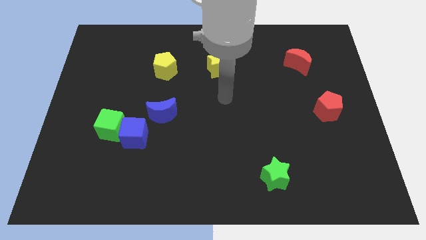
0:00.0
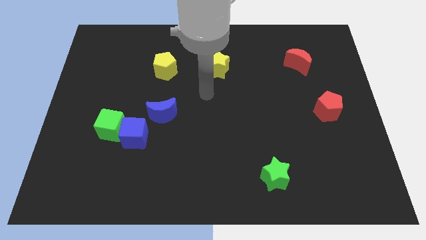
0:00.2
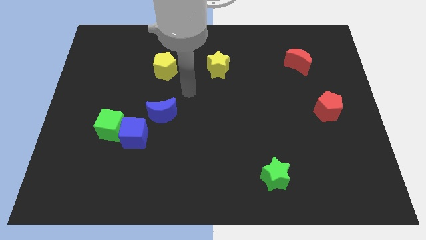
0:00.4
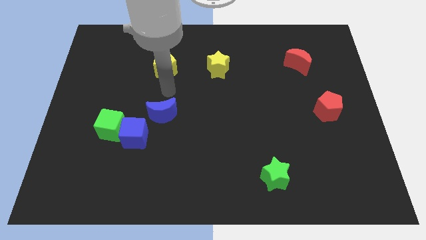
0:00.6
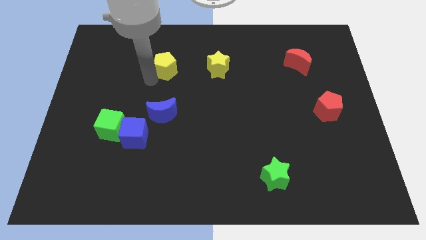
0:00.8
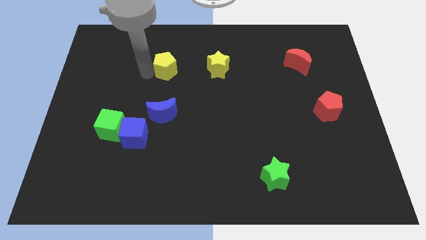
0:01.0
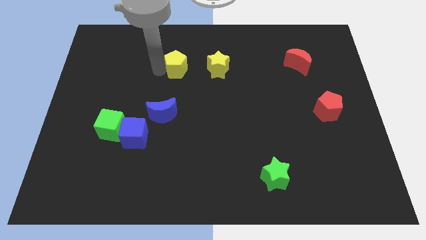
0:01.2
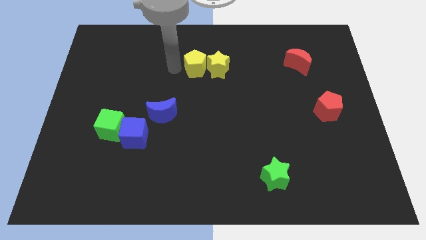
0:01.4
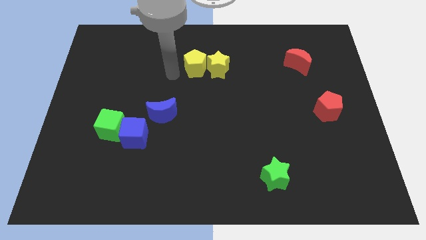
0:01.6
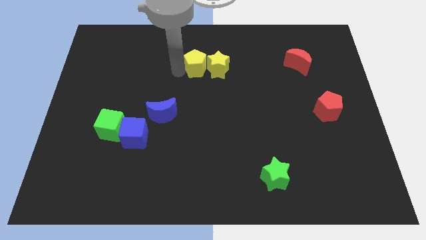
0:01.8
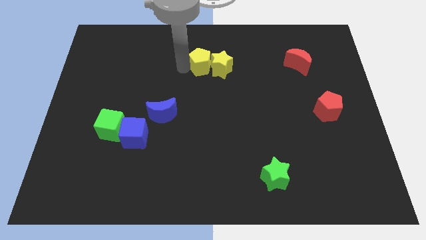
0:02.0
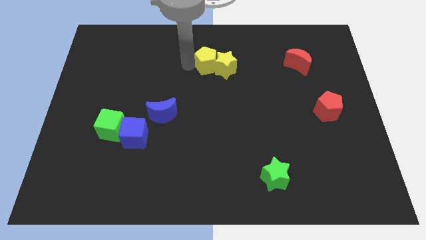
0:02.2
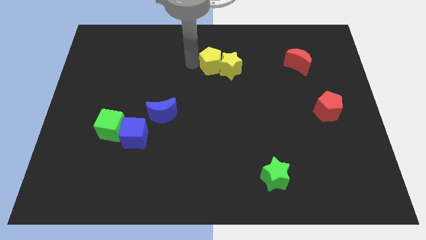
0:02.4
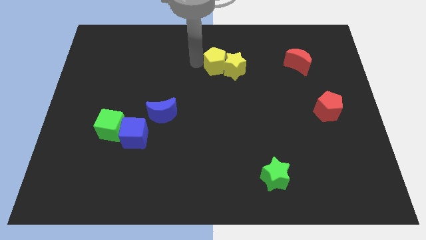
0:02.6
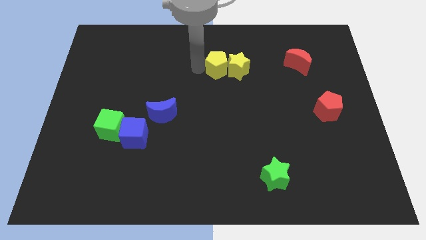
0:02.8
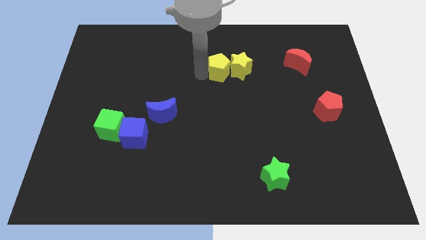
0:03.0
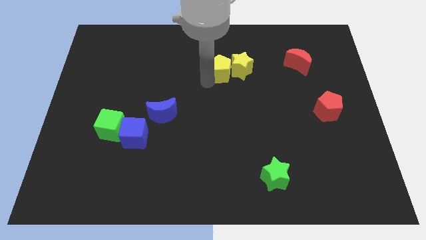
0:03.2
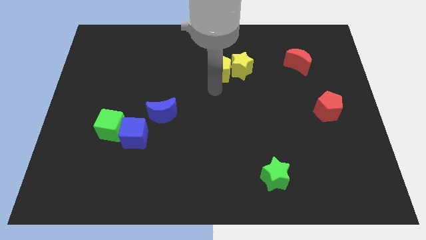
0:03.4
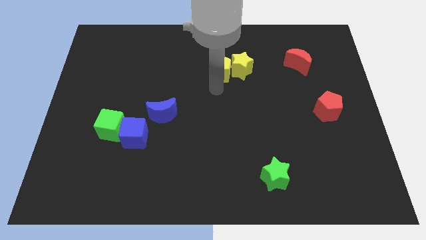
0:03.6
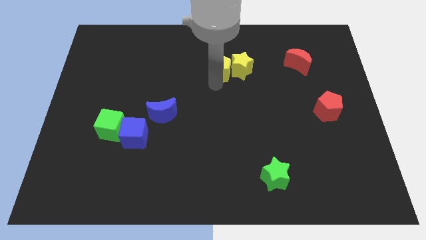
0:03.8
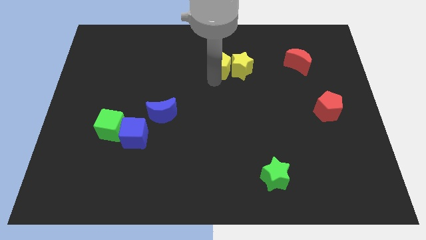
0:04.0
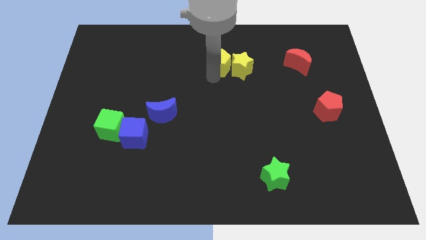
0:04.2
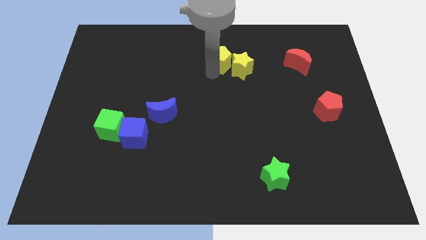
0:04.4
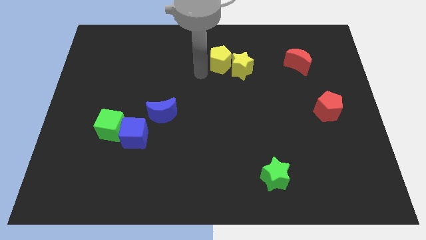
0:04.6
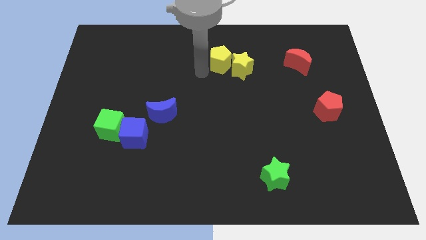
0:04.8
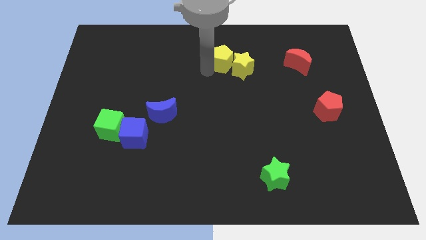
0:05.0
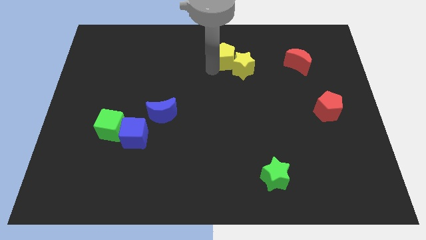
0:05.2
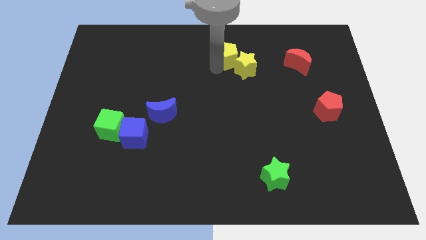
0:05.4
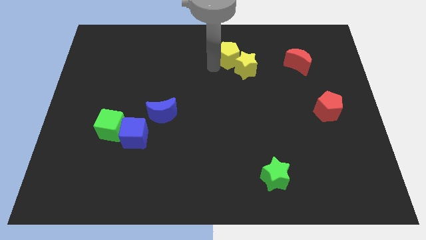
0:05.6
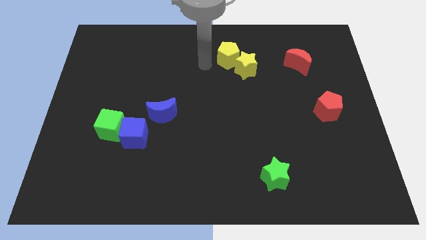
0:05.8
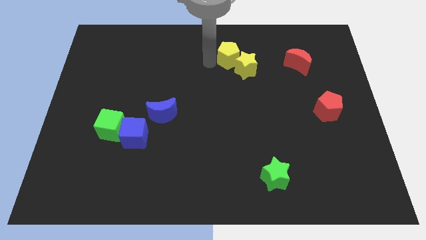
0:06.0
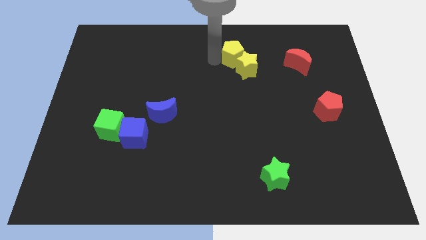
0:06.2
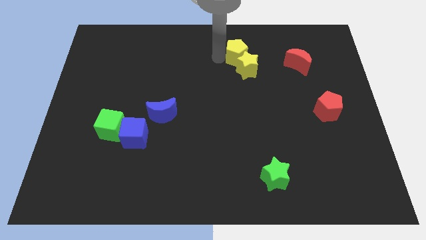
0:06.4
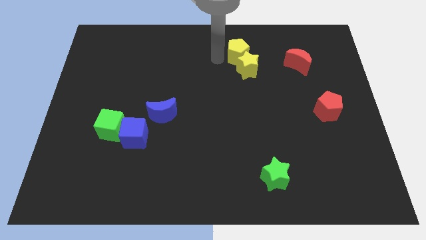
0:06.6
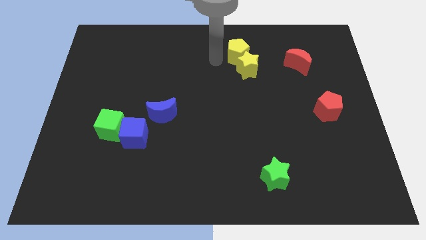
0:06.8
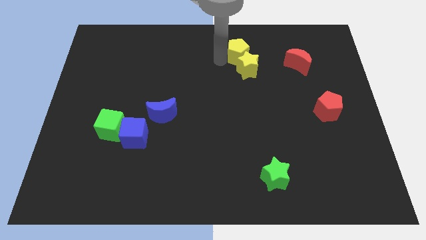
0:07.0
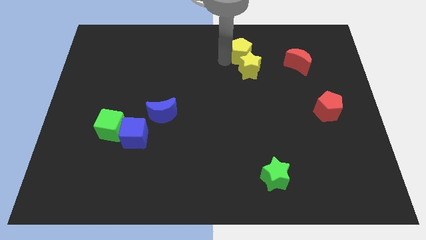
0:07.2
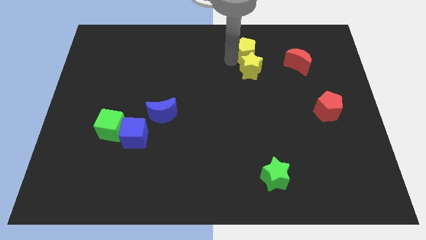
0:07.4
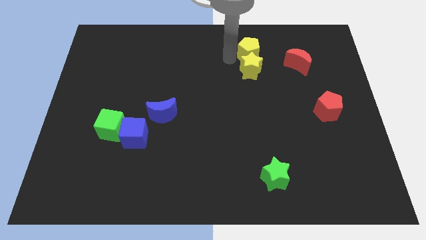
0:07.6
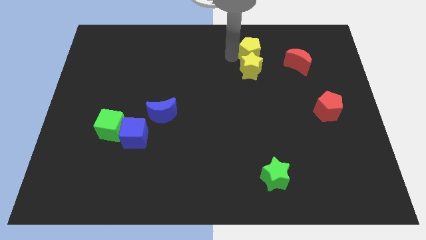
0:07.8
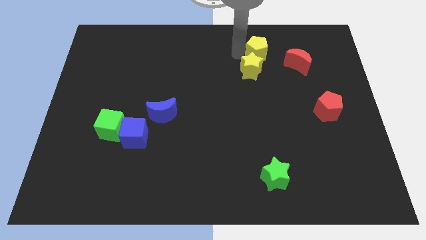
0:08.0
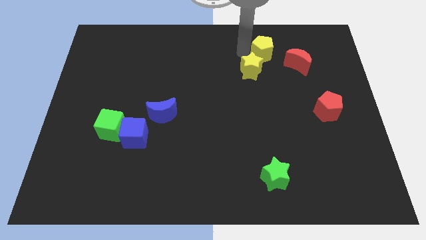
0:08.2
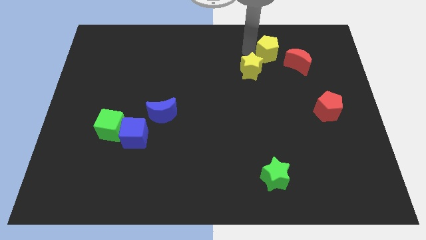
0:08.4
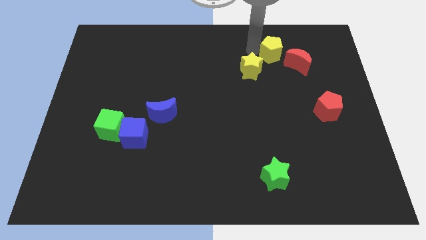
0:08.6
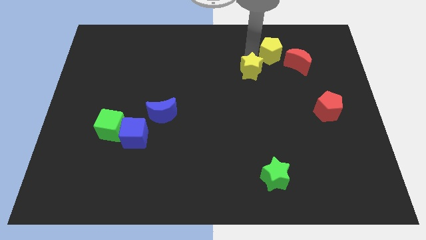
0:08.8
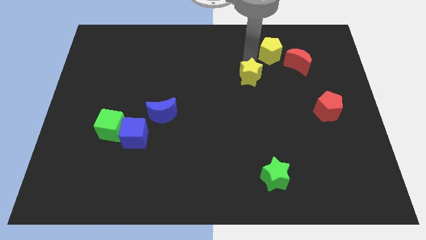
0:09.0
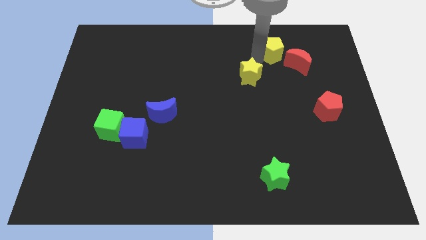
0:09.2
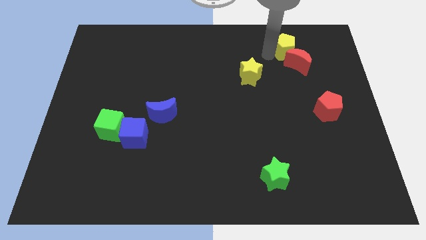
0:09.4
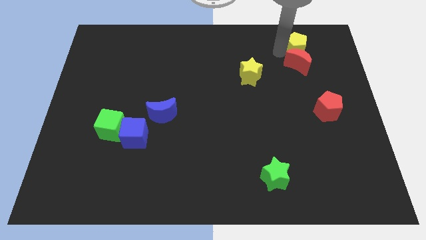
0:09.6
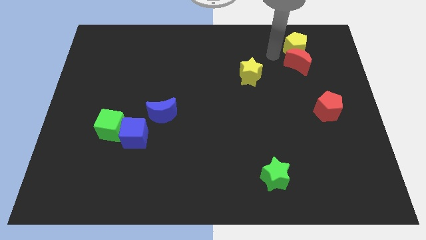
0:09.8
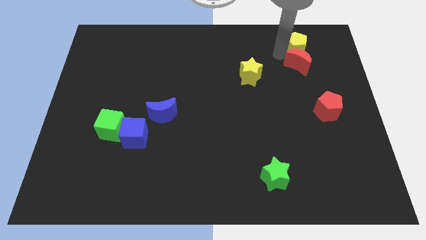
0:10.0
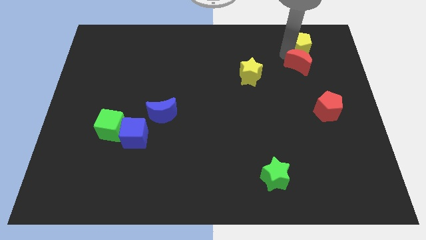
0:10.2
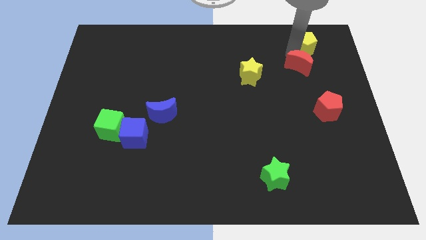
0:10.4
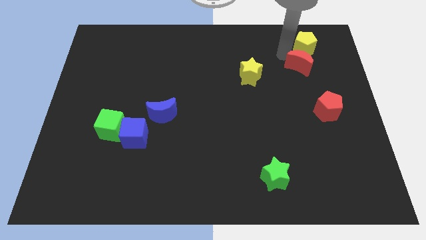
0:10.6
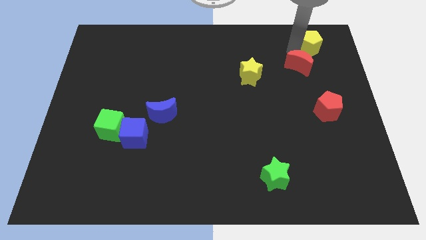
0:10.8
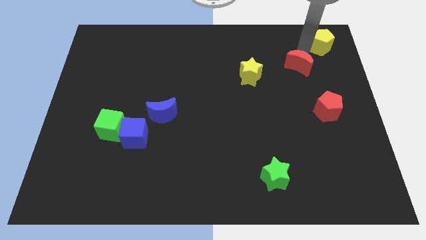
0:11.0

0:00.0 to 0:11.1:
move the yellow pentagon to the upper right corner
